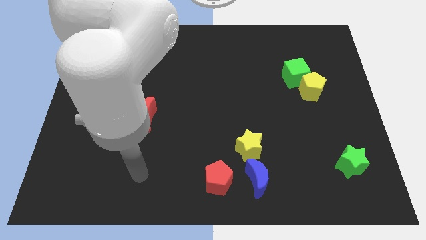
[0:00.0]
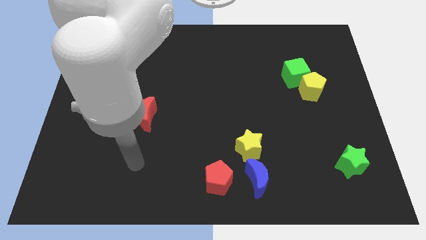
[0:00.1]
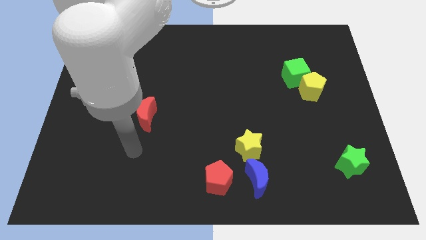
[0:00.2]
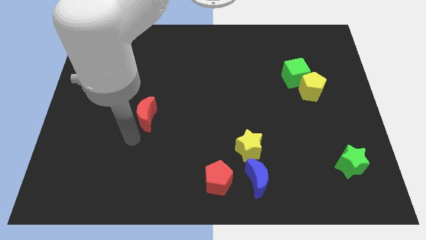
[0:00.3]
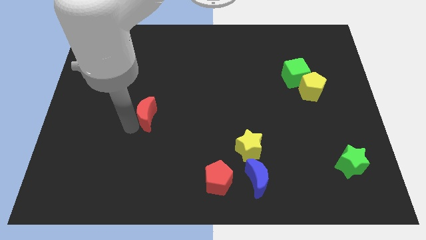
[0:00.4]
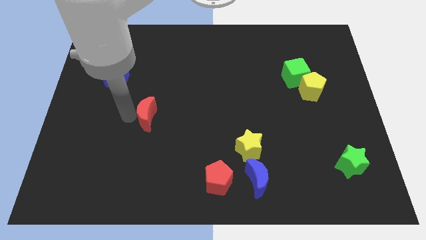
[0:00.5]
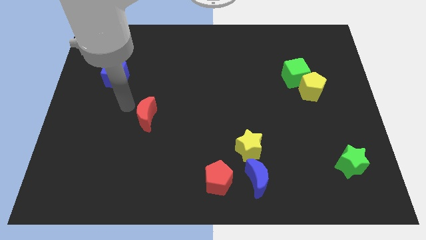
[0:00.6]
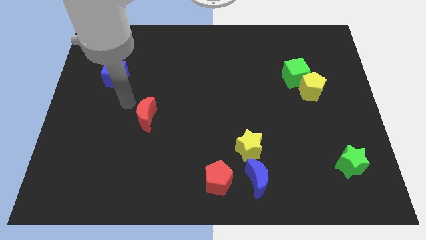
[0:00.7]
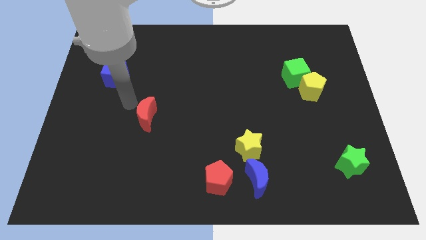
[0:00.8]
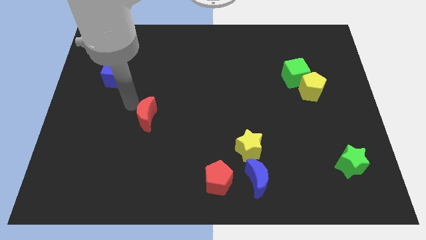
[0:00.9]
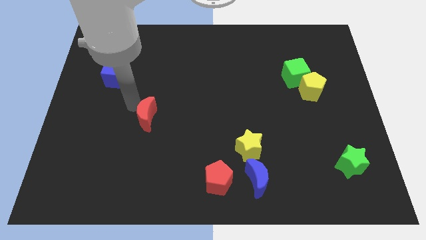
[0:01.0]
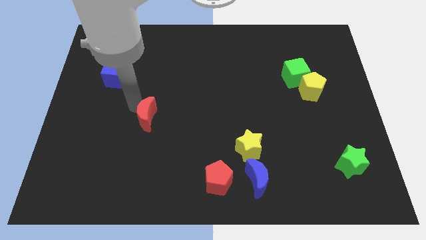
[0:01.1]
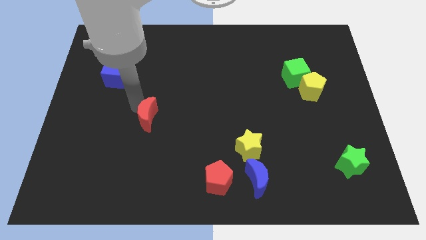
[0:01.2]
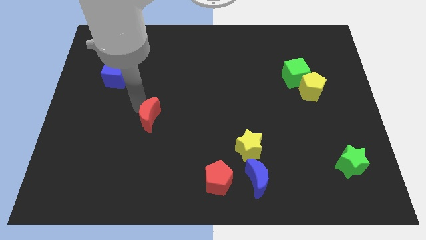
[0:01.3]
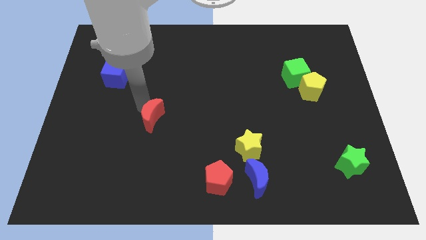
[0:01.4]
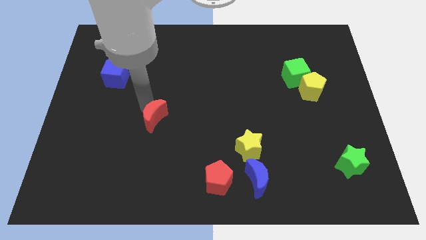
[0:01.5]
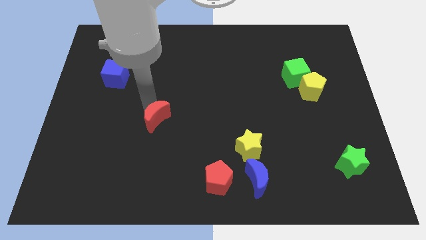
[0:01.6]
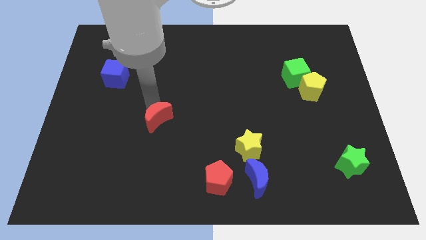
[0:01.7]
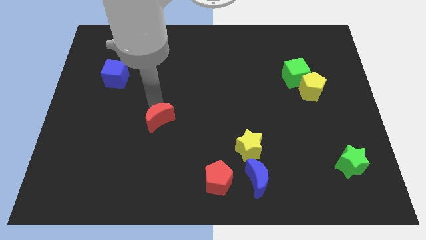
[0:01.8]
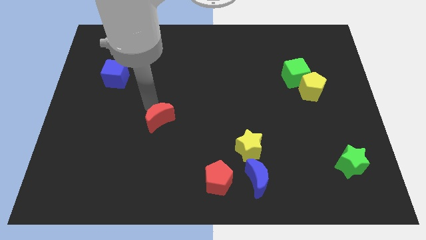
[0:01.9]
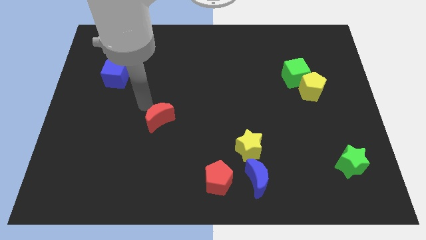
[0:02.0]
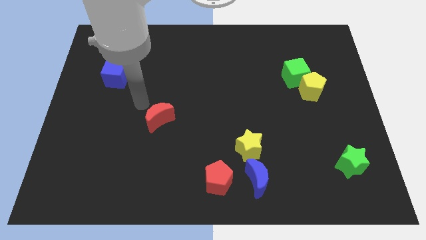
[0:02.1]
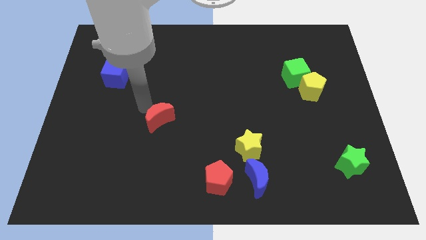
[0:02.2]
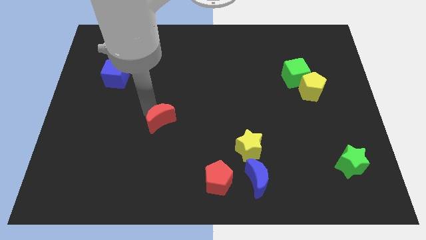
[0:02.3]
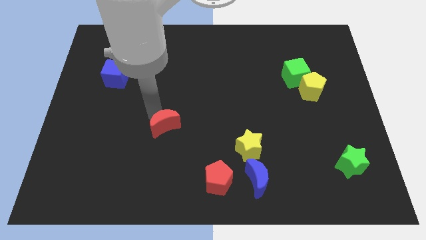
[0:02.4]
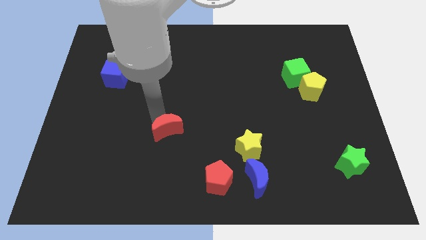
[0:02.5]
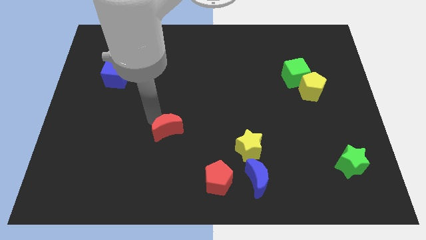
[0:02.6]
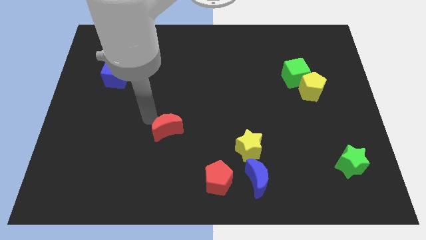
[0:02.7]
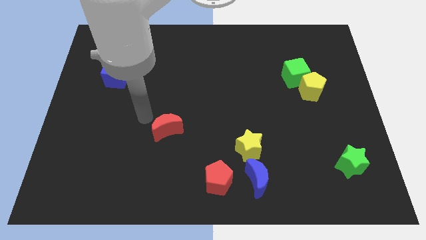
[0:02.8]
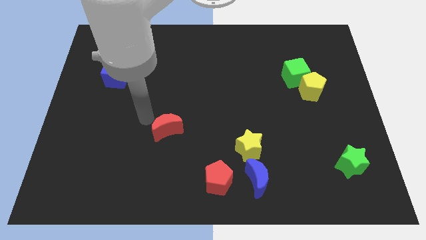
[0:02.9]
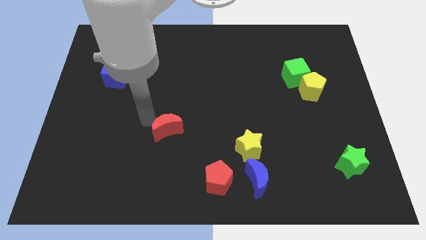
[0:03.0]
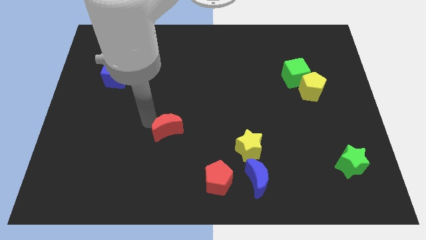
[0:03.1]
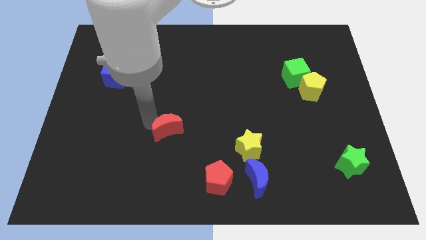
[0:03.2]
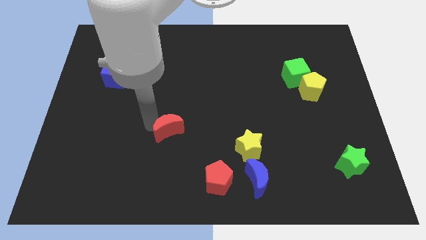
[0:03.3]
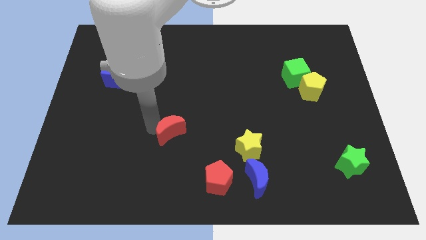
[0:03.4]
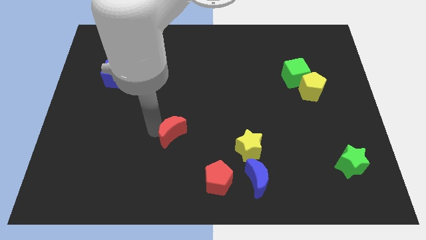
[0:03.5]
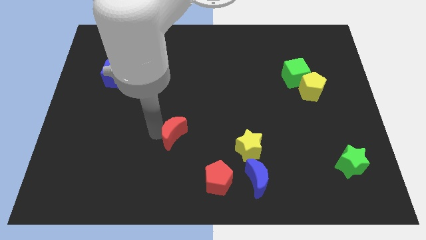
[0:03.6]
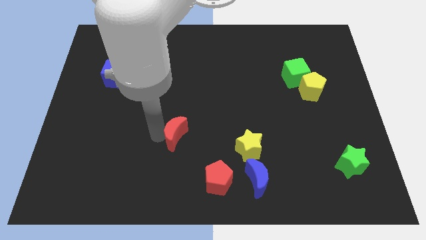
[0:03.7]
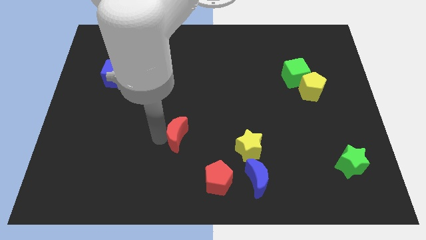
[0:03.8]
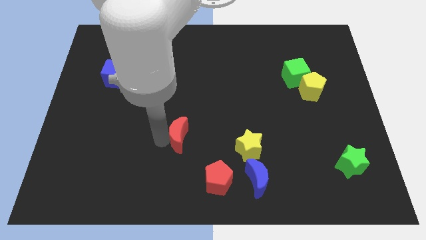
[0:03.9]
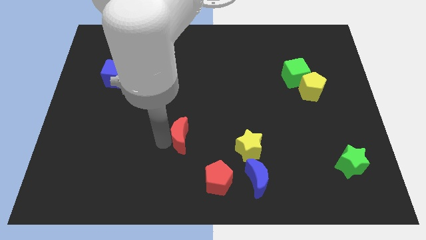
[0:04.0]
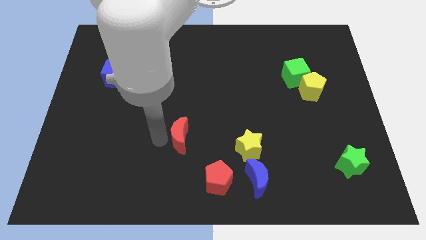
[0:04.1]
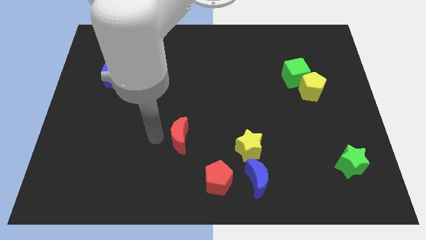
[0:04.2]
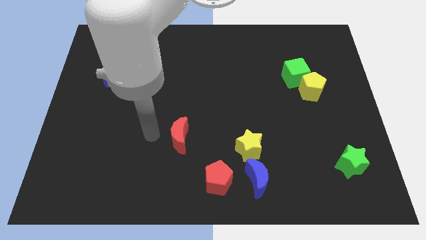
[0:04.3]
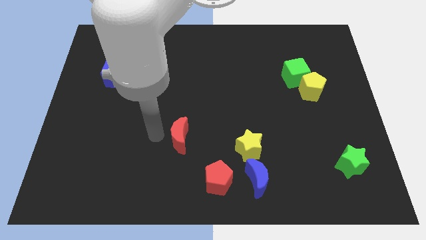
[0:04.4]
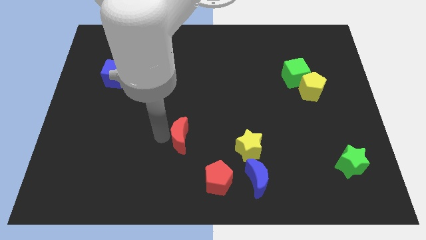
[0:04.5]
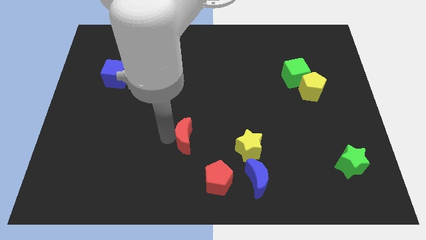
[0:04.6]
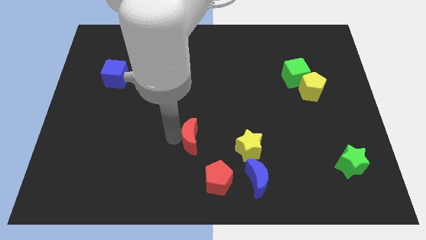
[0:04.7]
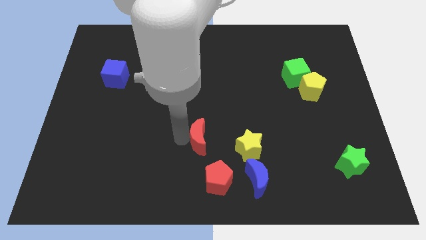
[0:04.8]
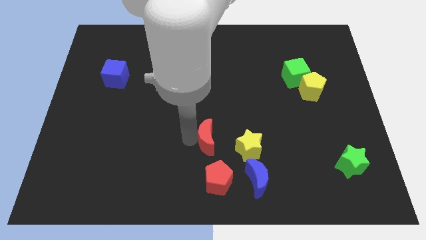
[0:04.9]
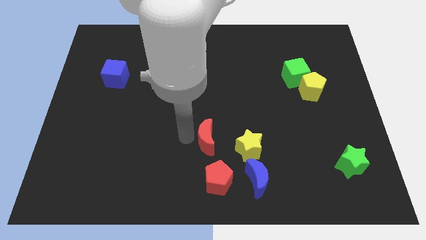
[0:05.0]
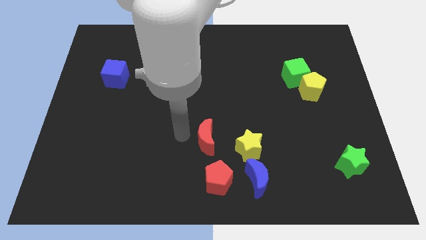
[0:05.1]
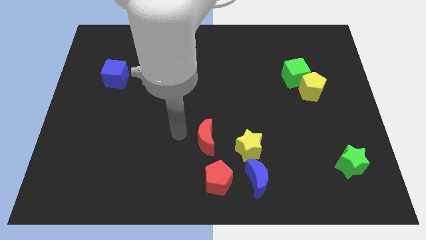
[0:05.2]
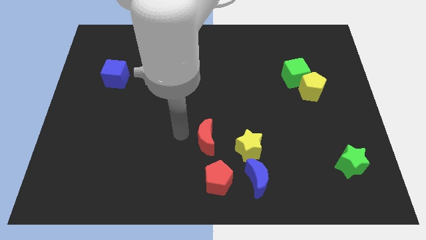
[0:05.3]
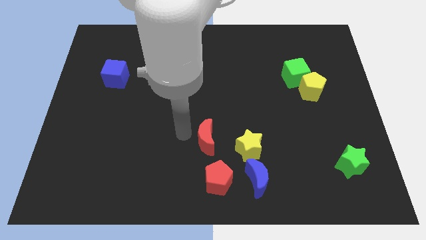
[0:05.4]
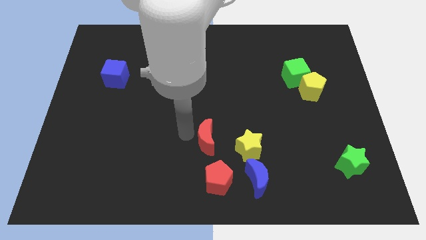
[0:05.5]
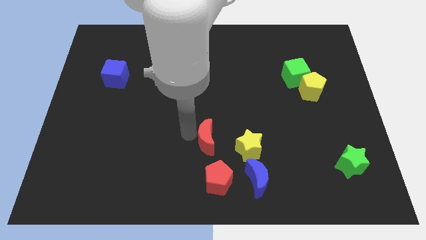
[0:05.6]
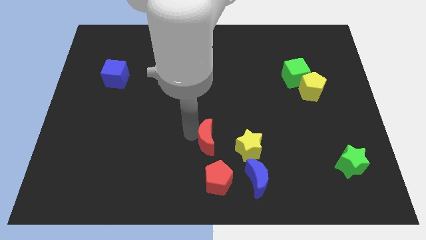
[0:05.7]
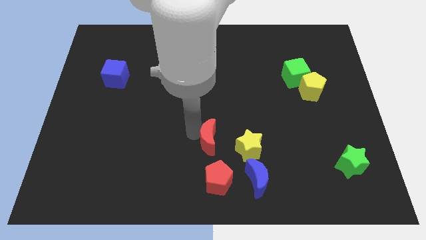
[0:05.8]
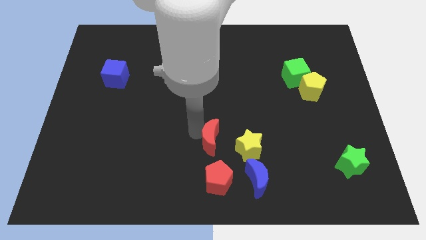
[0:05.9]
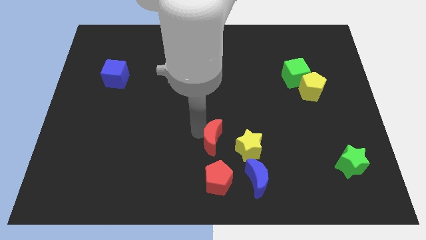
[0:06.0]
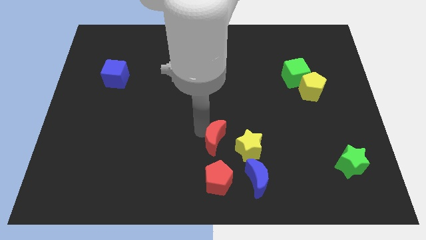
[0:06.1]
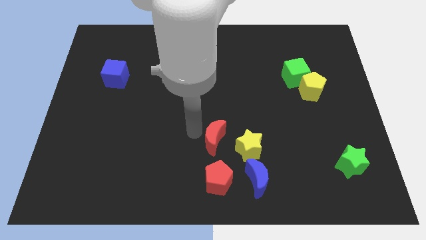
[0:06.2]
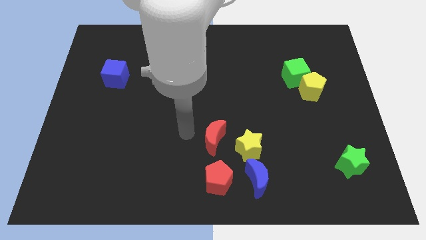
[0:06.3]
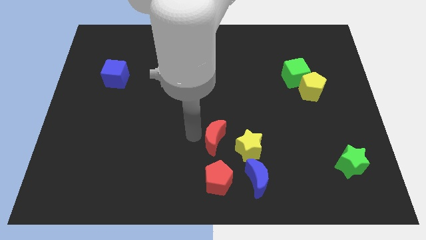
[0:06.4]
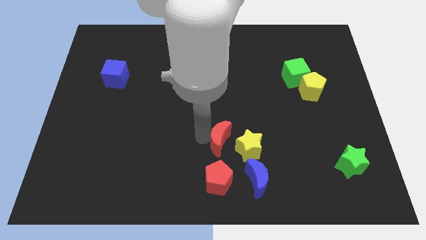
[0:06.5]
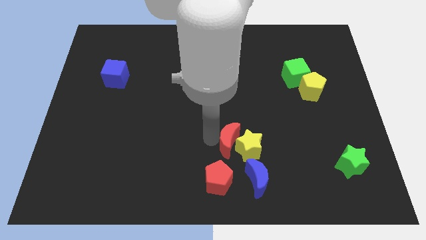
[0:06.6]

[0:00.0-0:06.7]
push the red moon to the yellow star

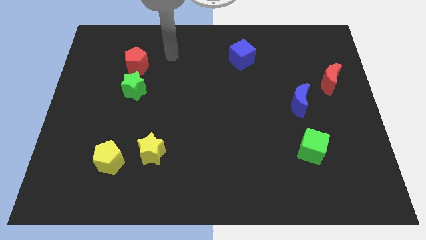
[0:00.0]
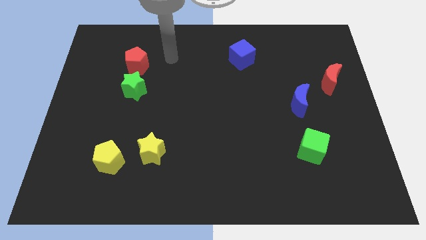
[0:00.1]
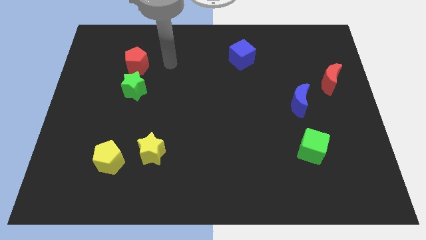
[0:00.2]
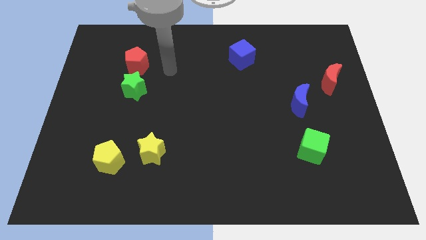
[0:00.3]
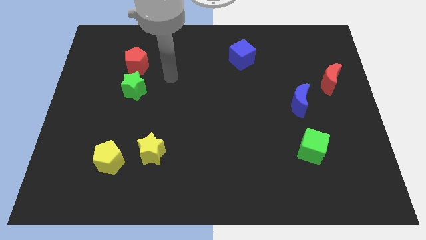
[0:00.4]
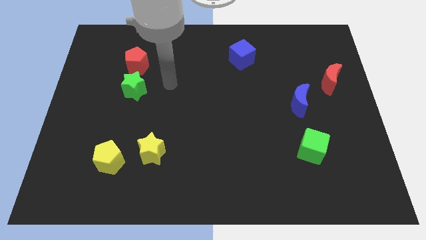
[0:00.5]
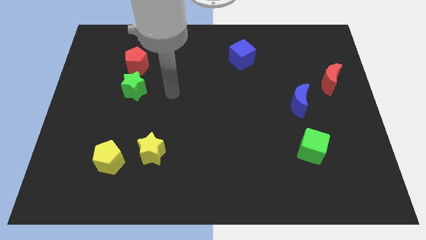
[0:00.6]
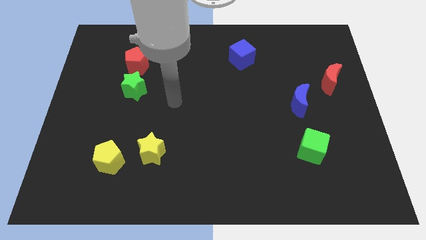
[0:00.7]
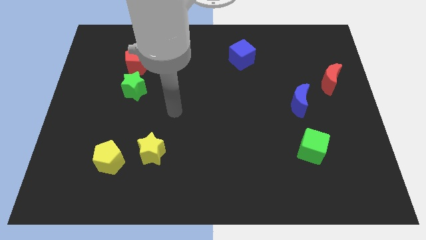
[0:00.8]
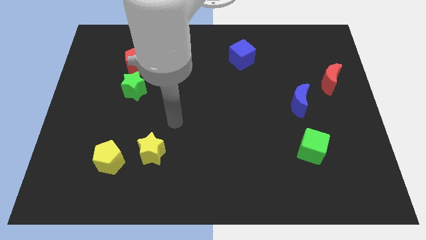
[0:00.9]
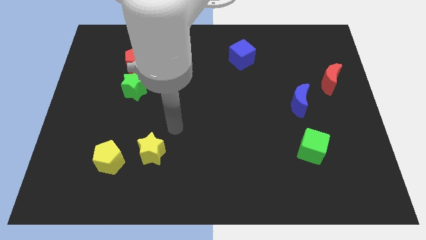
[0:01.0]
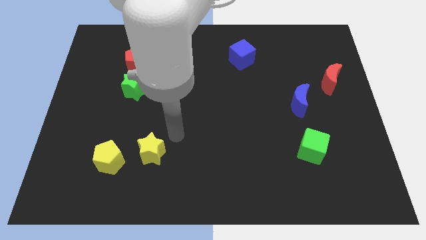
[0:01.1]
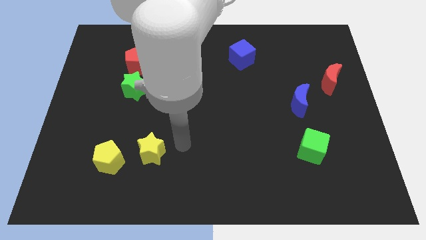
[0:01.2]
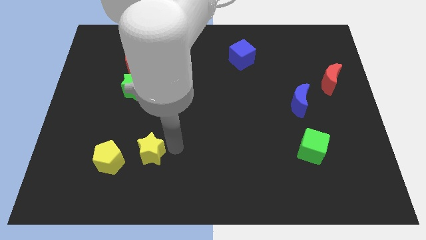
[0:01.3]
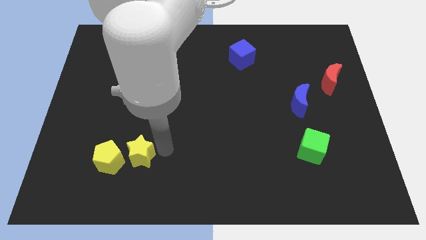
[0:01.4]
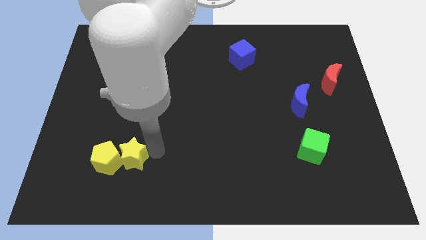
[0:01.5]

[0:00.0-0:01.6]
move the yellow star to the yellow pentagon

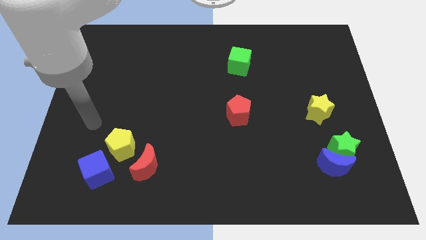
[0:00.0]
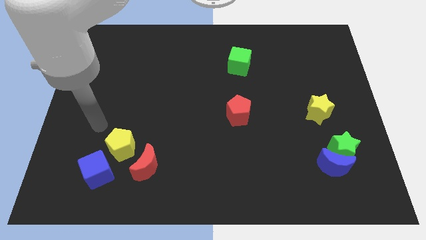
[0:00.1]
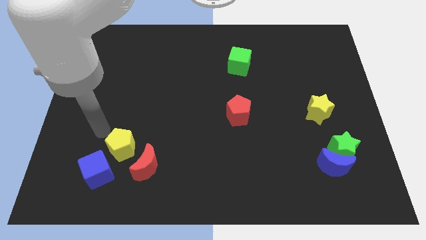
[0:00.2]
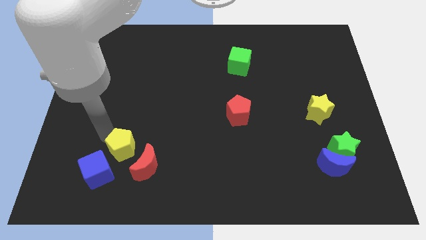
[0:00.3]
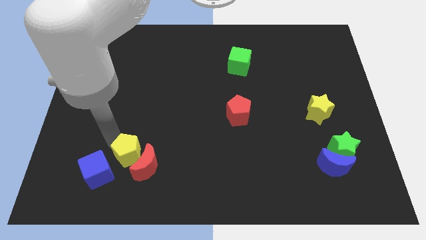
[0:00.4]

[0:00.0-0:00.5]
move the yellow pentagon next to the red moon
